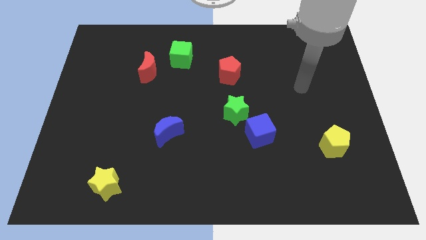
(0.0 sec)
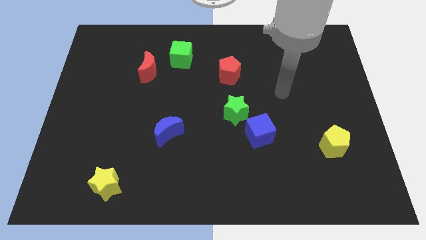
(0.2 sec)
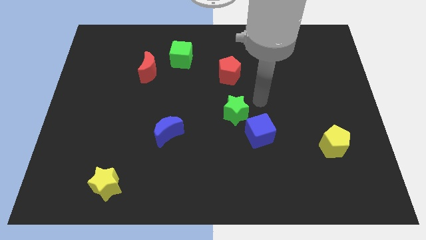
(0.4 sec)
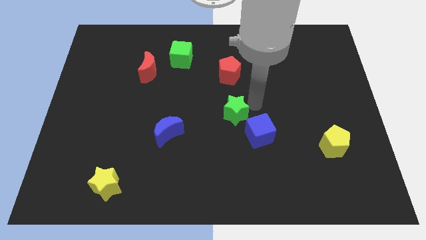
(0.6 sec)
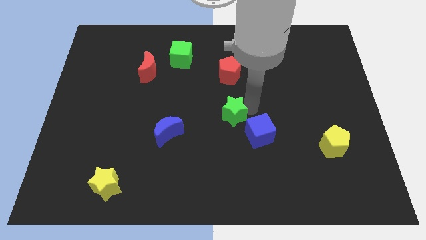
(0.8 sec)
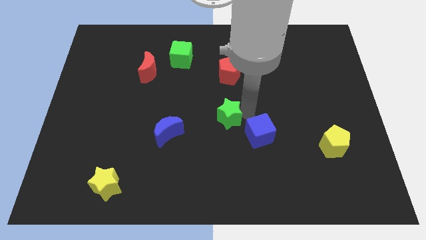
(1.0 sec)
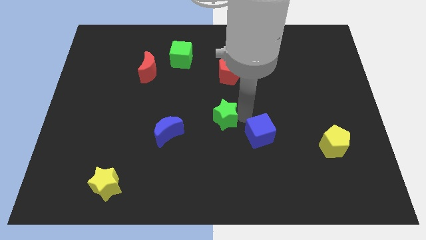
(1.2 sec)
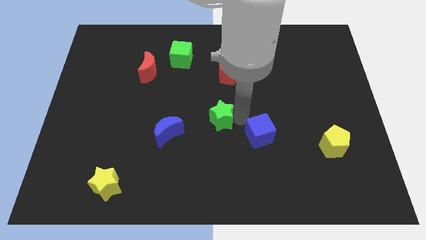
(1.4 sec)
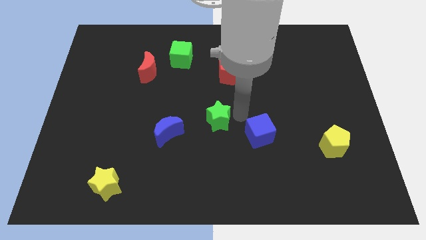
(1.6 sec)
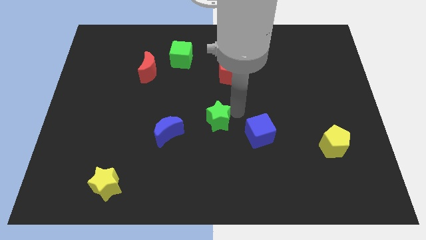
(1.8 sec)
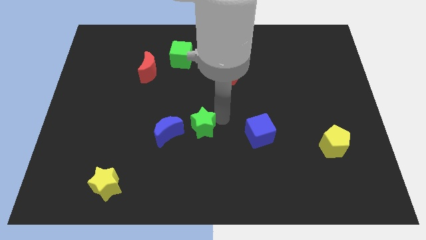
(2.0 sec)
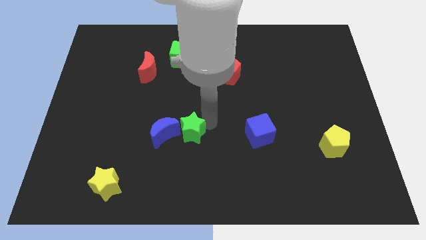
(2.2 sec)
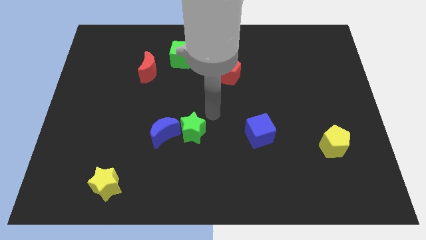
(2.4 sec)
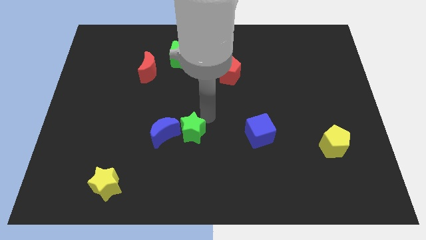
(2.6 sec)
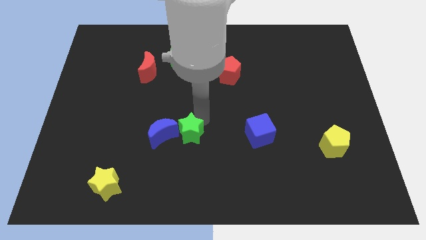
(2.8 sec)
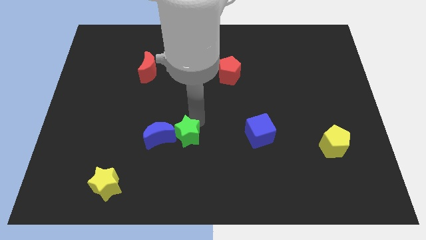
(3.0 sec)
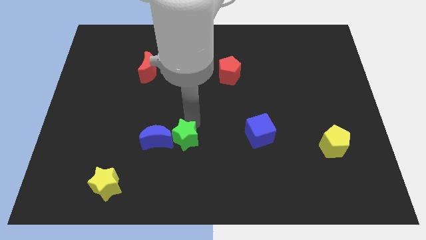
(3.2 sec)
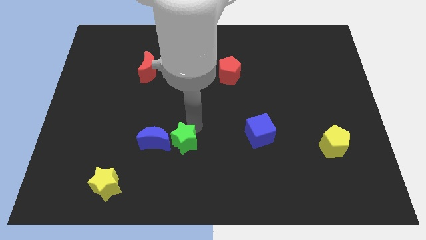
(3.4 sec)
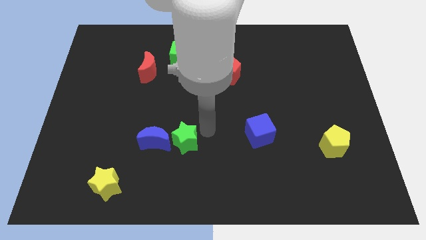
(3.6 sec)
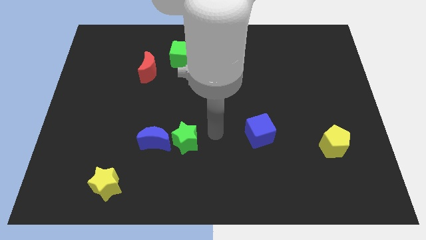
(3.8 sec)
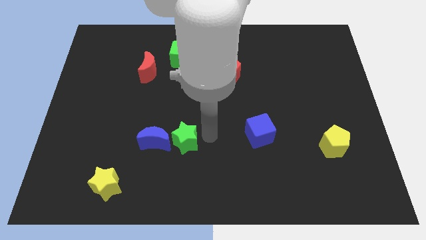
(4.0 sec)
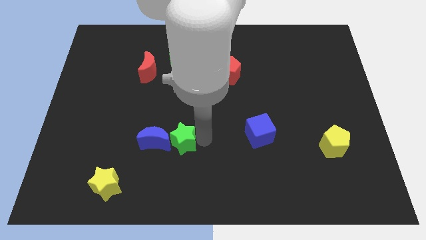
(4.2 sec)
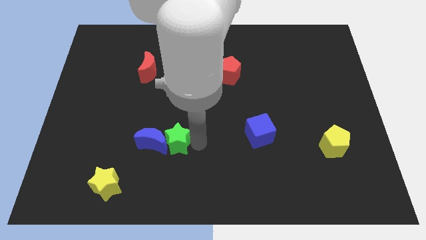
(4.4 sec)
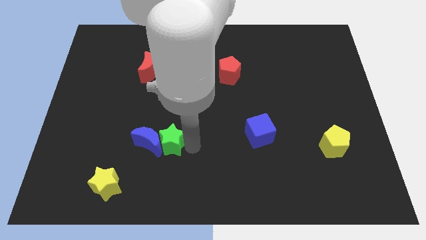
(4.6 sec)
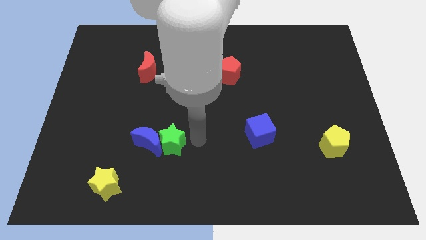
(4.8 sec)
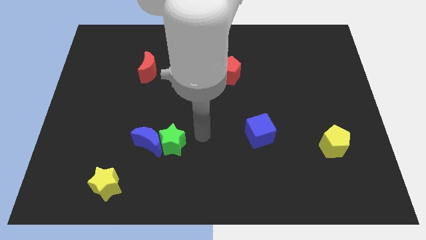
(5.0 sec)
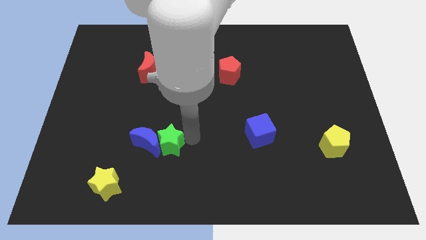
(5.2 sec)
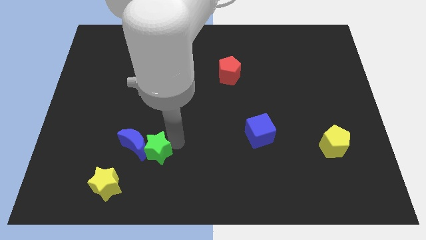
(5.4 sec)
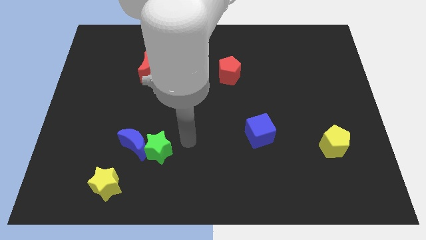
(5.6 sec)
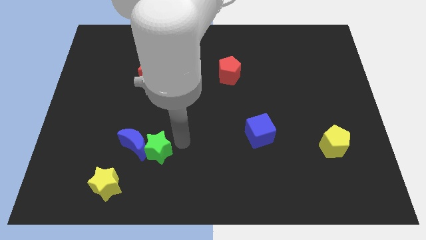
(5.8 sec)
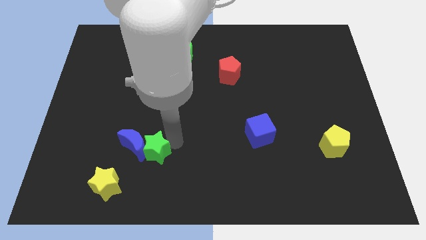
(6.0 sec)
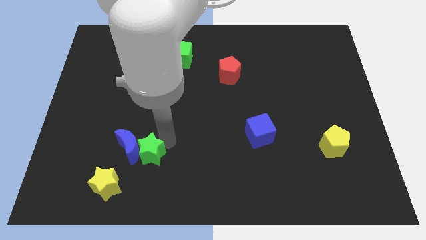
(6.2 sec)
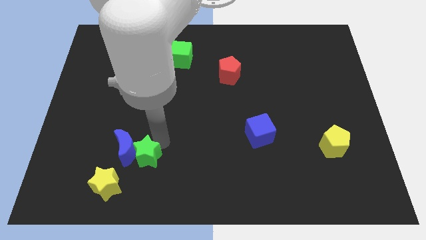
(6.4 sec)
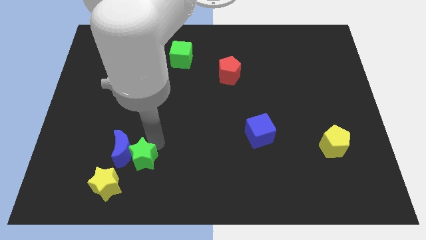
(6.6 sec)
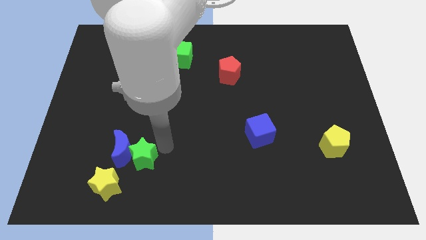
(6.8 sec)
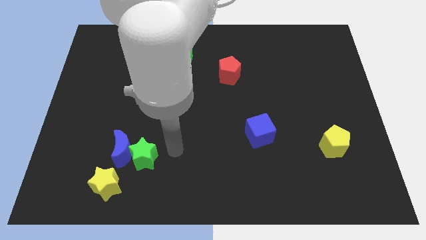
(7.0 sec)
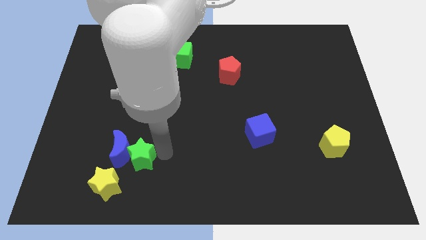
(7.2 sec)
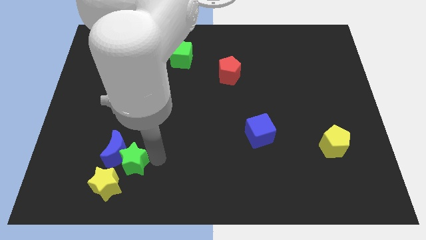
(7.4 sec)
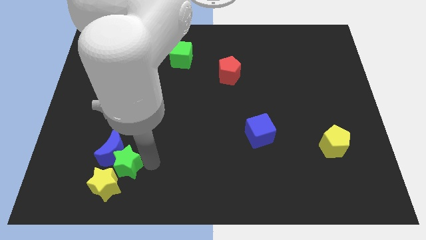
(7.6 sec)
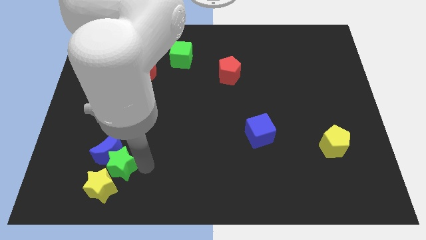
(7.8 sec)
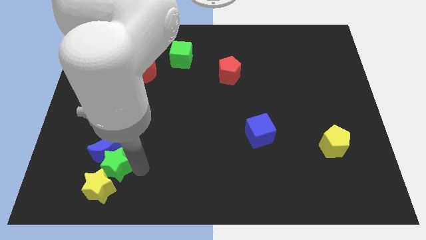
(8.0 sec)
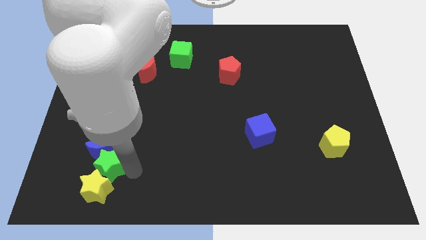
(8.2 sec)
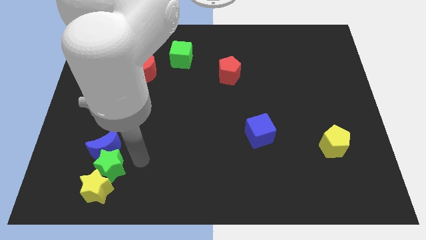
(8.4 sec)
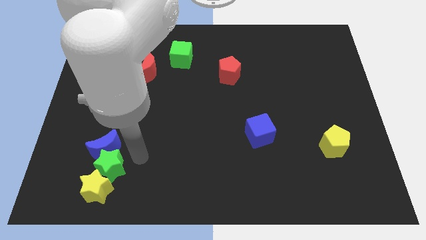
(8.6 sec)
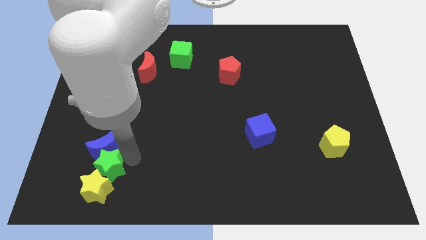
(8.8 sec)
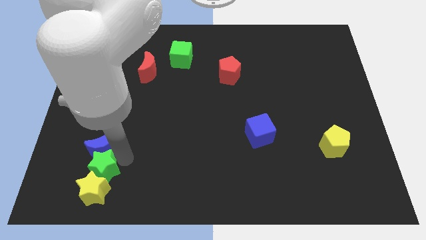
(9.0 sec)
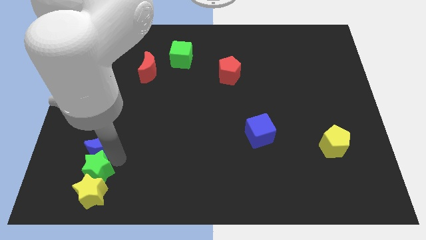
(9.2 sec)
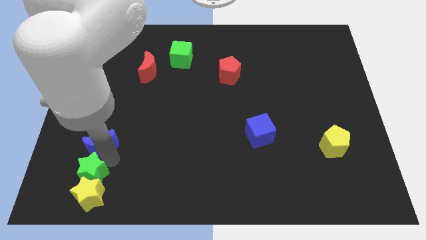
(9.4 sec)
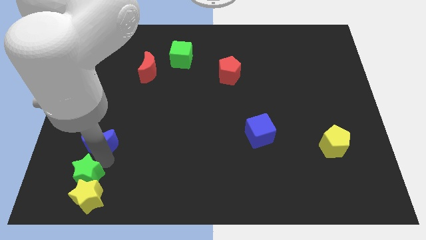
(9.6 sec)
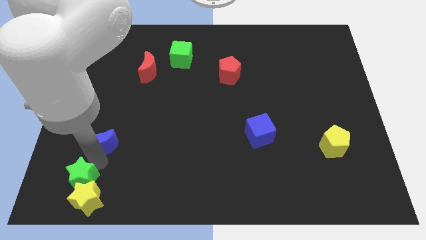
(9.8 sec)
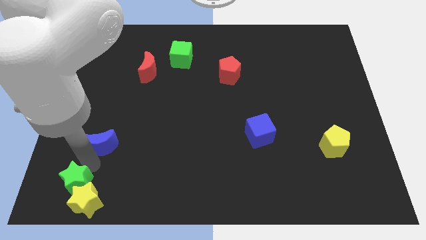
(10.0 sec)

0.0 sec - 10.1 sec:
slide the green star to the bottom left corner

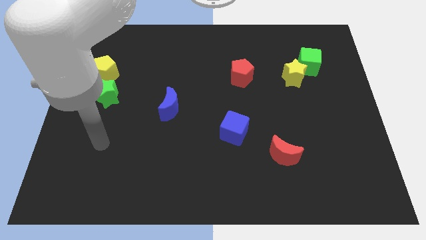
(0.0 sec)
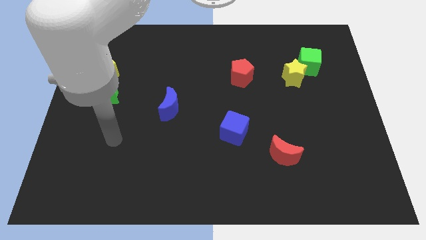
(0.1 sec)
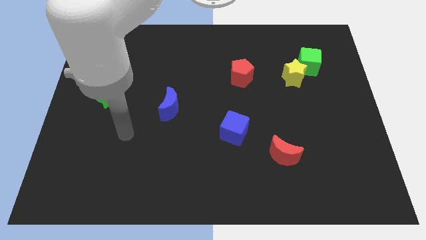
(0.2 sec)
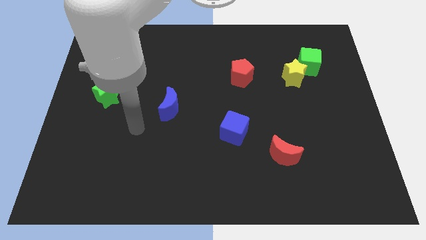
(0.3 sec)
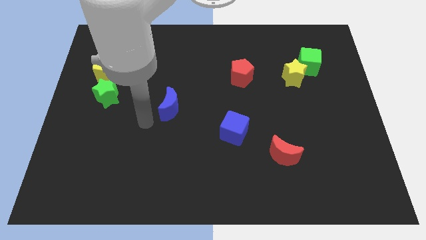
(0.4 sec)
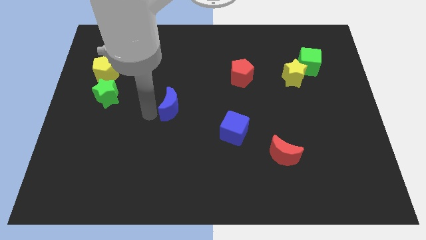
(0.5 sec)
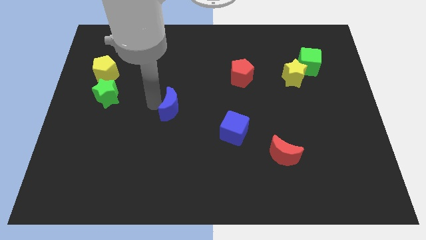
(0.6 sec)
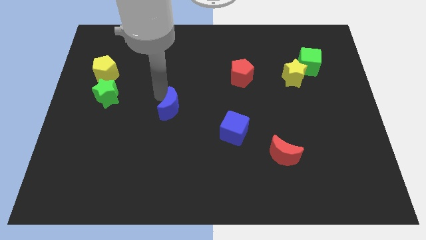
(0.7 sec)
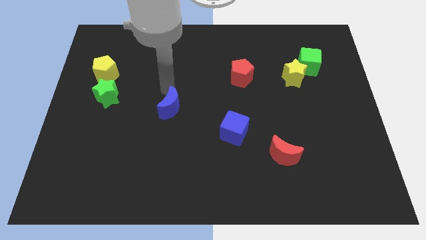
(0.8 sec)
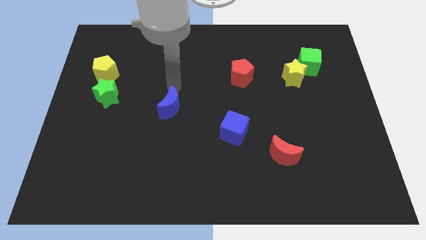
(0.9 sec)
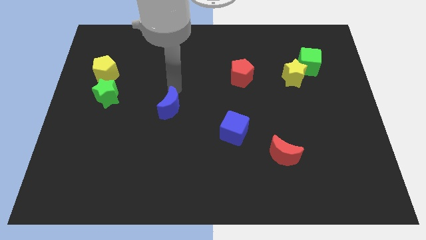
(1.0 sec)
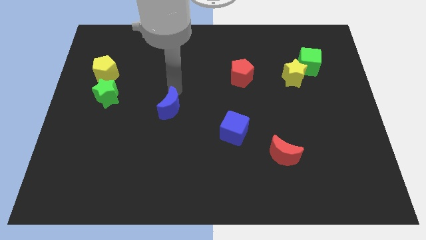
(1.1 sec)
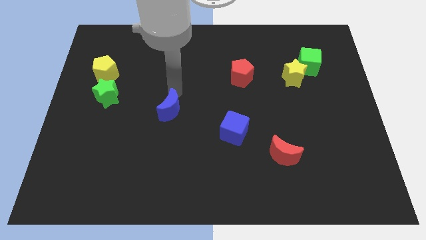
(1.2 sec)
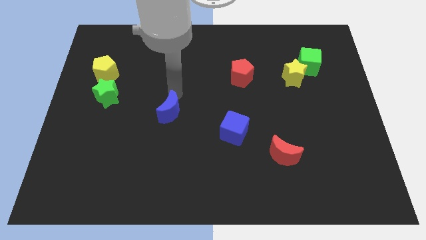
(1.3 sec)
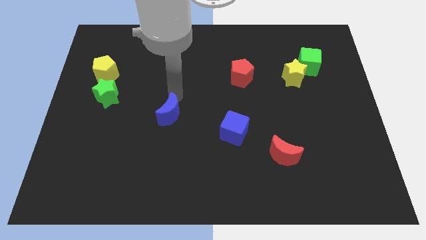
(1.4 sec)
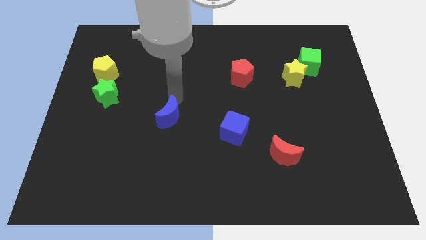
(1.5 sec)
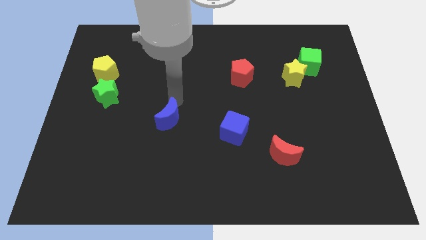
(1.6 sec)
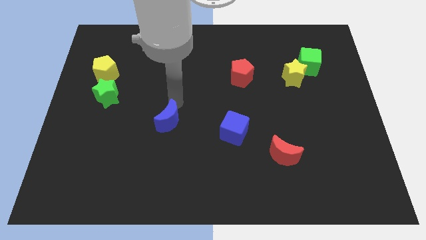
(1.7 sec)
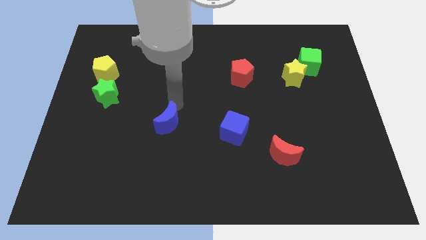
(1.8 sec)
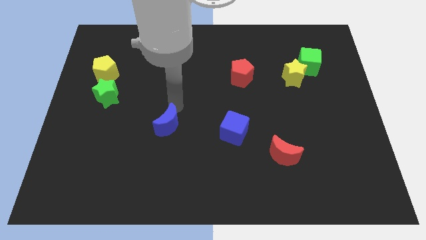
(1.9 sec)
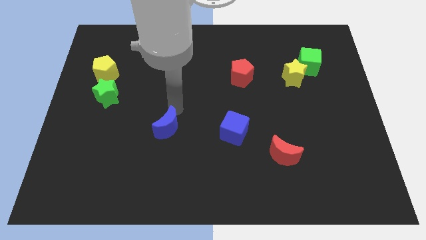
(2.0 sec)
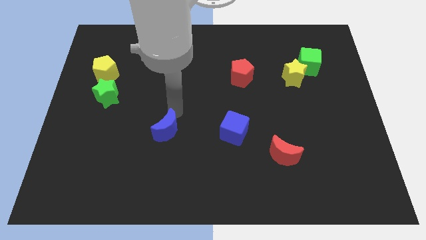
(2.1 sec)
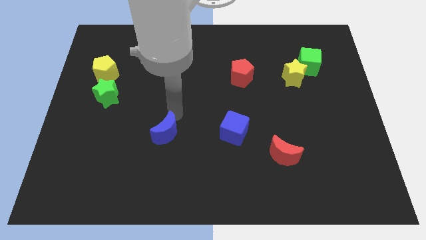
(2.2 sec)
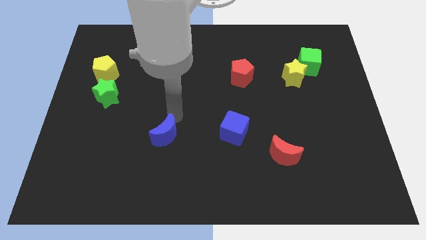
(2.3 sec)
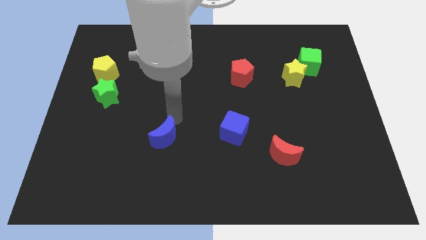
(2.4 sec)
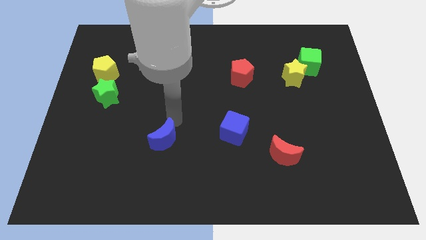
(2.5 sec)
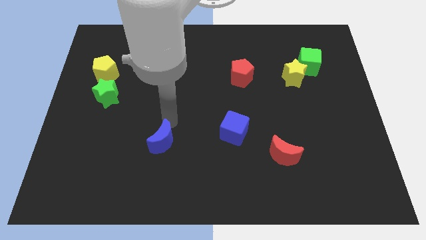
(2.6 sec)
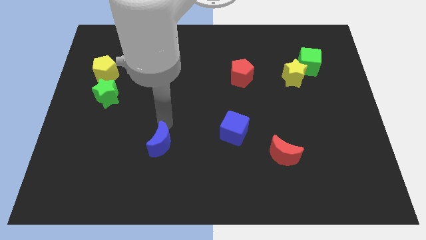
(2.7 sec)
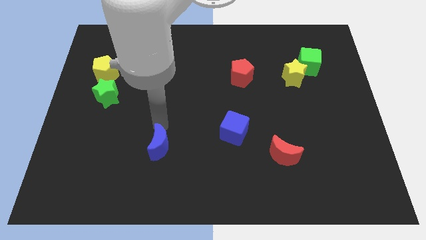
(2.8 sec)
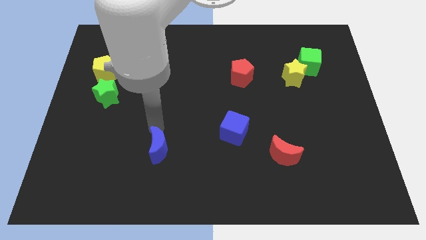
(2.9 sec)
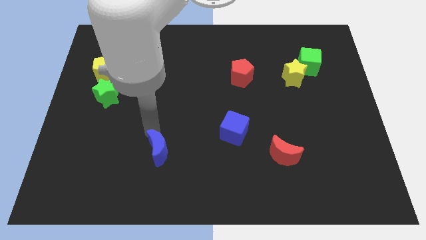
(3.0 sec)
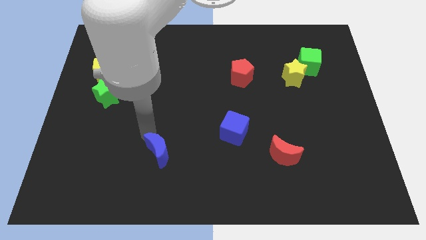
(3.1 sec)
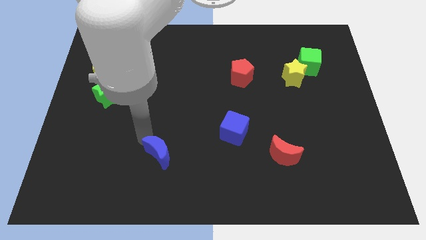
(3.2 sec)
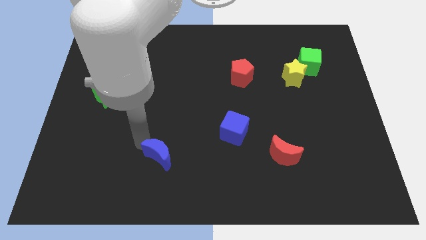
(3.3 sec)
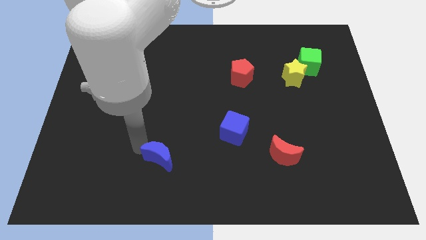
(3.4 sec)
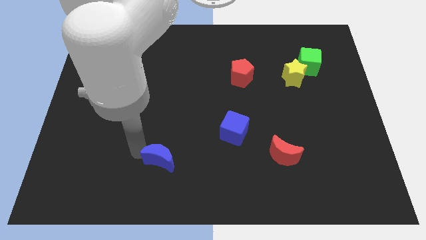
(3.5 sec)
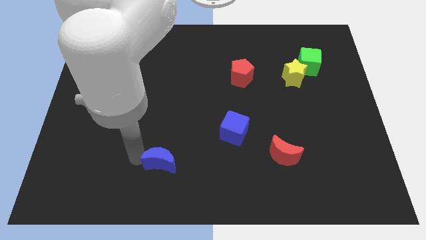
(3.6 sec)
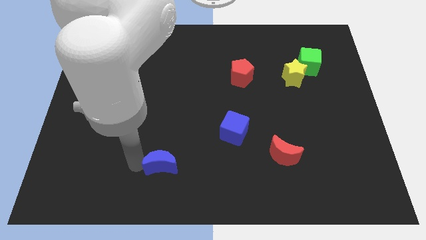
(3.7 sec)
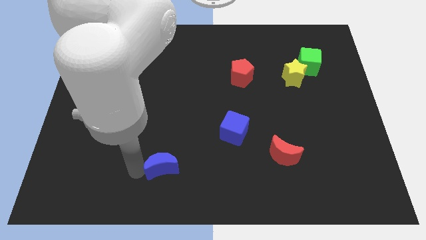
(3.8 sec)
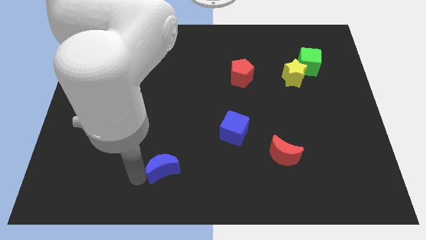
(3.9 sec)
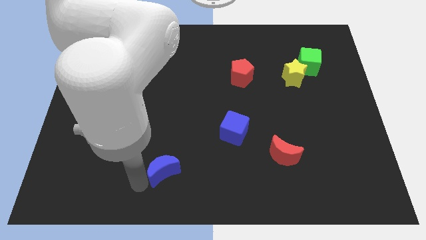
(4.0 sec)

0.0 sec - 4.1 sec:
push the blue moon to the bottom
